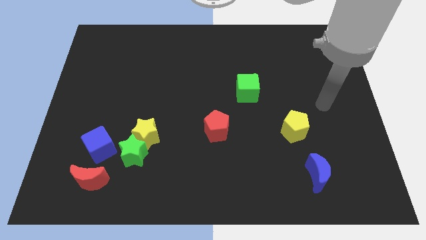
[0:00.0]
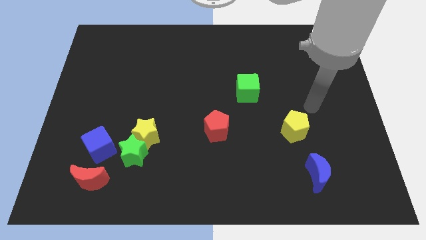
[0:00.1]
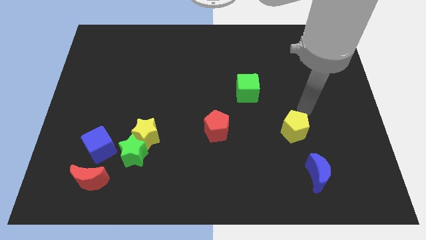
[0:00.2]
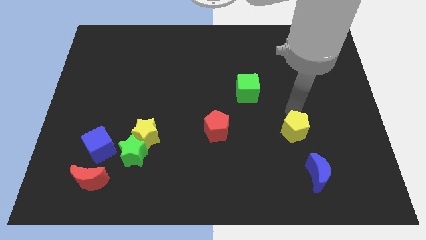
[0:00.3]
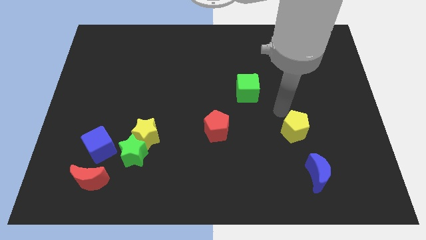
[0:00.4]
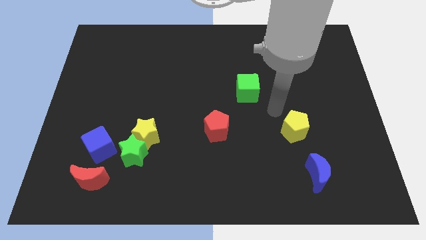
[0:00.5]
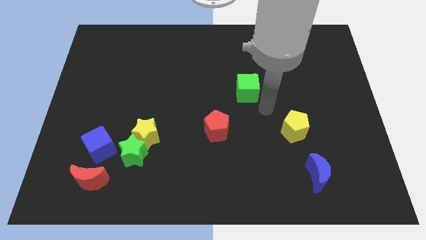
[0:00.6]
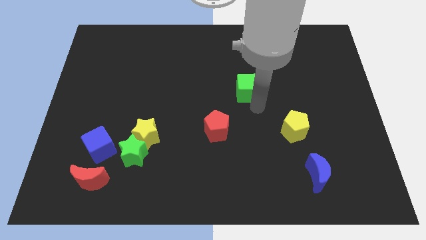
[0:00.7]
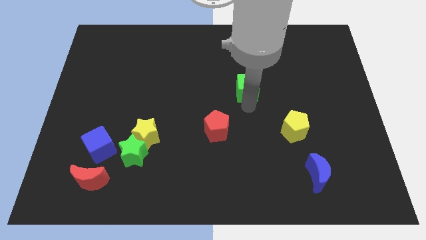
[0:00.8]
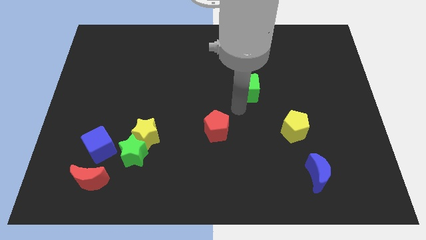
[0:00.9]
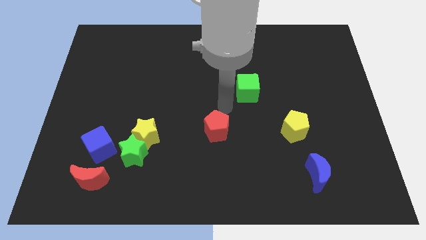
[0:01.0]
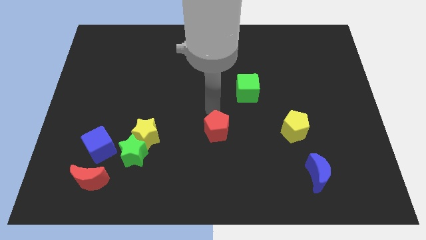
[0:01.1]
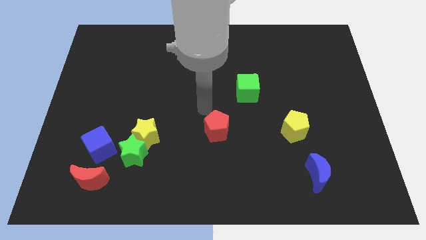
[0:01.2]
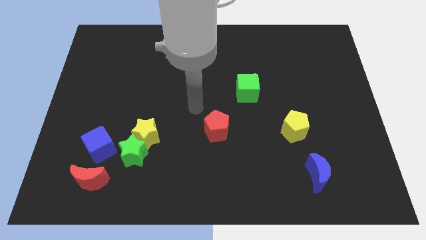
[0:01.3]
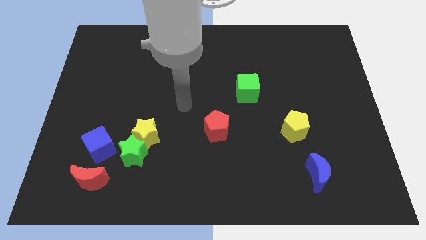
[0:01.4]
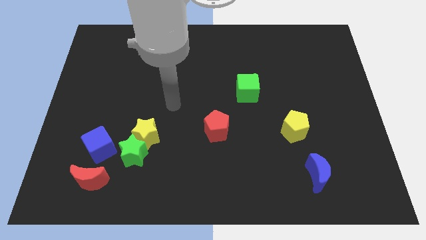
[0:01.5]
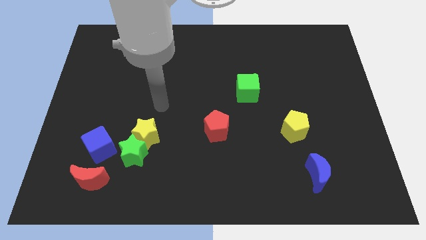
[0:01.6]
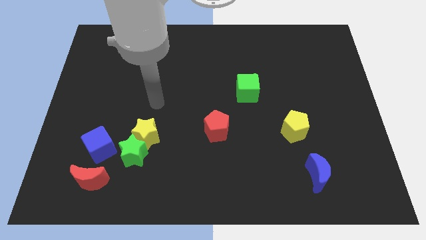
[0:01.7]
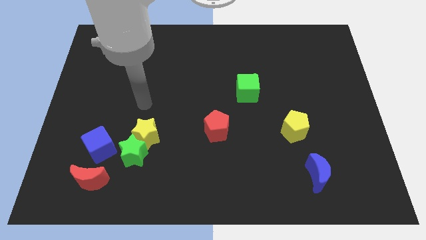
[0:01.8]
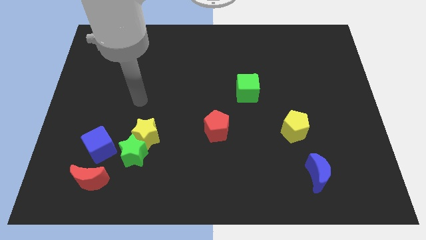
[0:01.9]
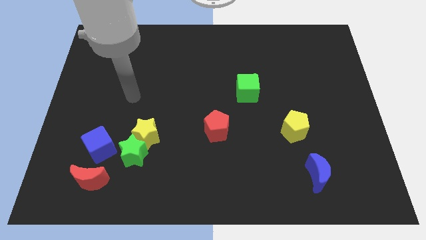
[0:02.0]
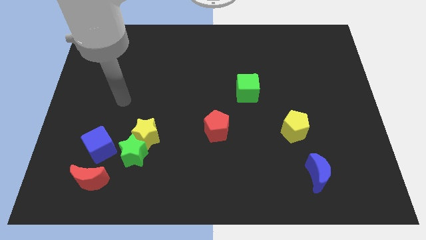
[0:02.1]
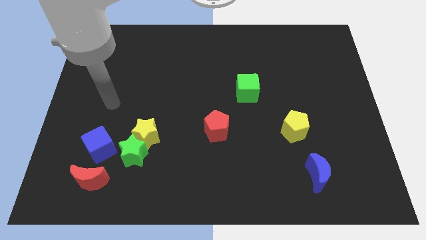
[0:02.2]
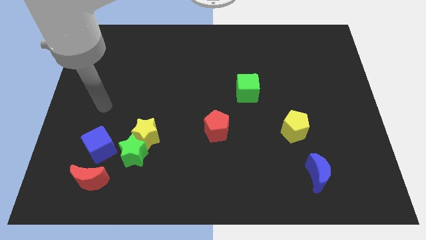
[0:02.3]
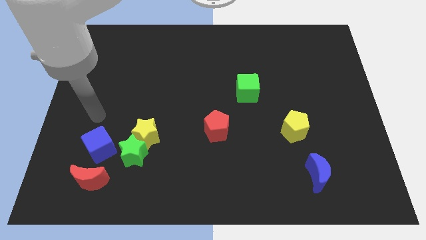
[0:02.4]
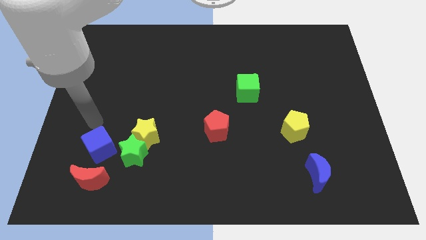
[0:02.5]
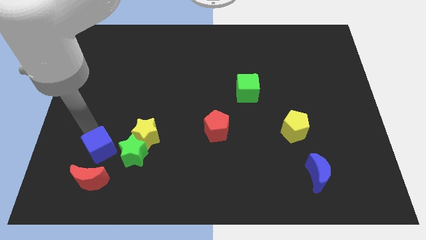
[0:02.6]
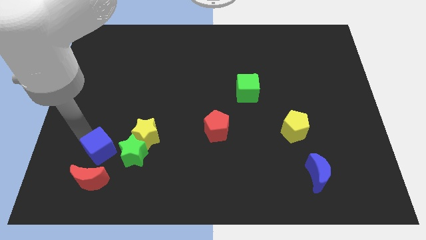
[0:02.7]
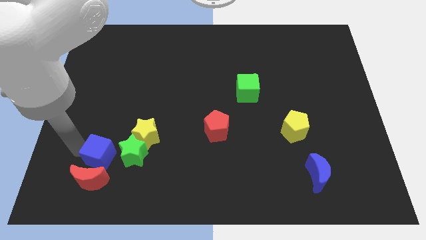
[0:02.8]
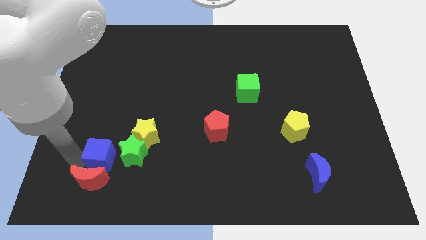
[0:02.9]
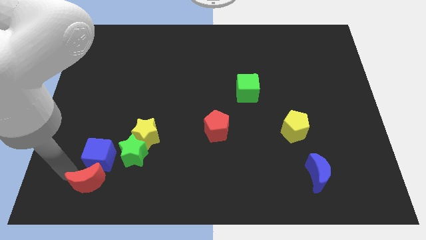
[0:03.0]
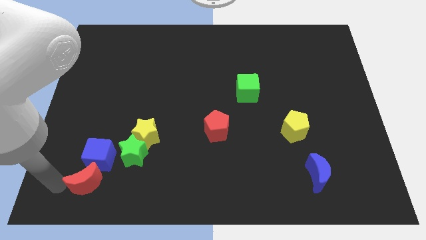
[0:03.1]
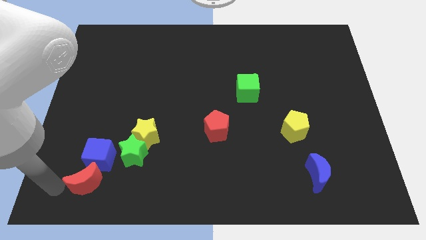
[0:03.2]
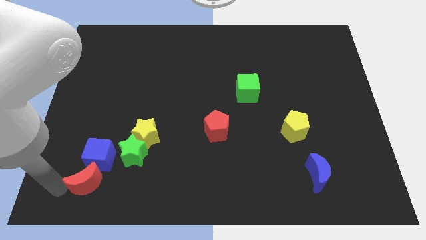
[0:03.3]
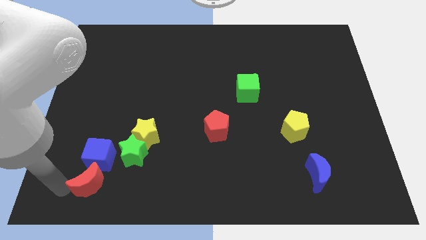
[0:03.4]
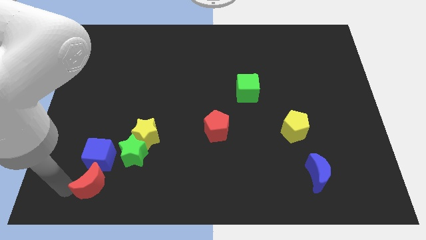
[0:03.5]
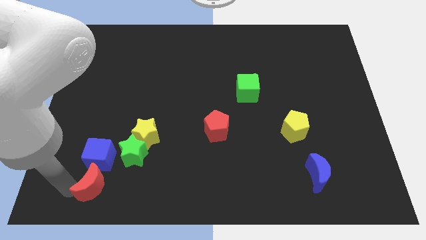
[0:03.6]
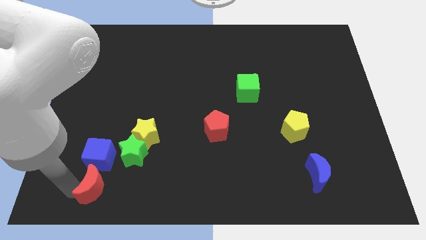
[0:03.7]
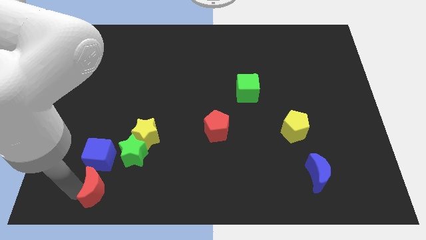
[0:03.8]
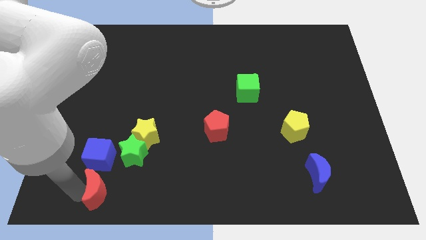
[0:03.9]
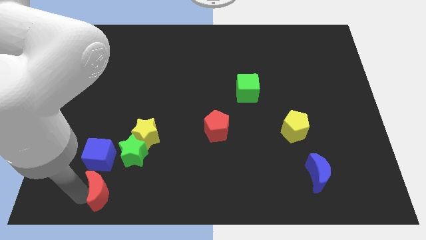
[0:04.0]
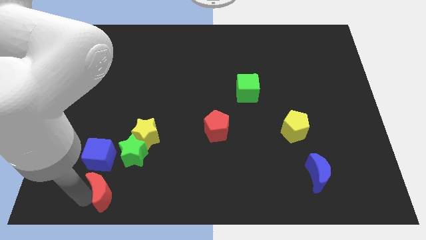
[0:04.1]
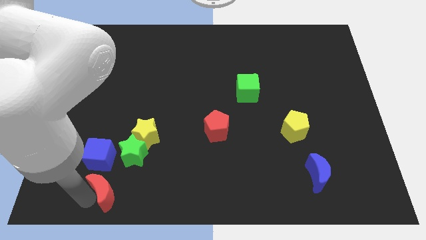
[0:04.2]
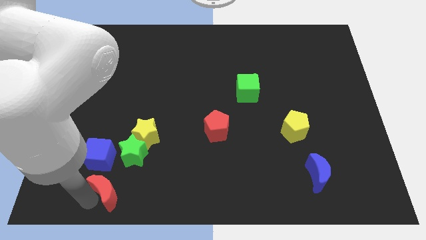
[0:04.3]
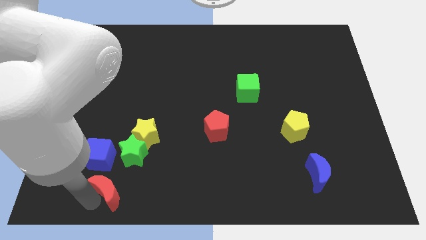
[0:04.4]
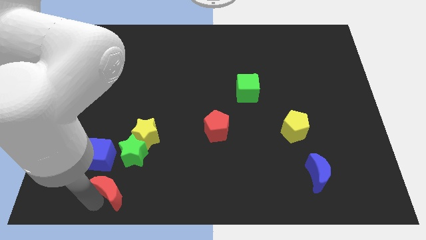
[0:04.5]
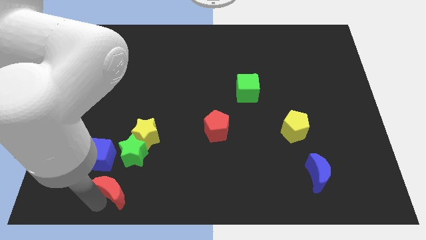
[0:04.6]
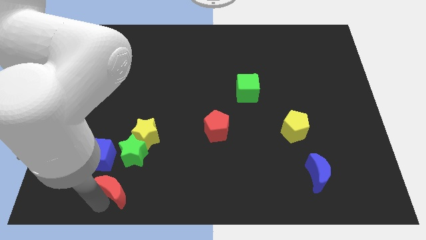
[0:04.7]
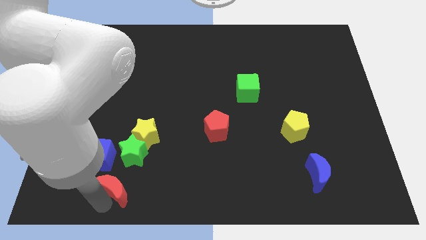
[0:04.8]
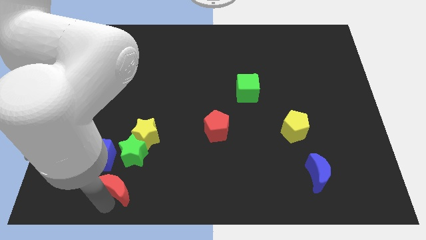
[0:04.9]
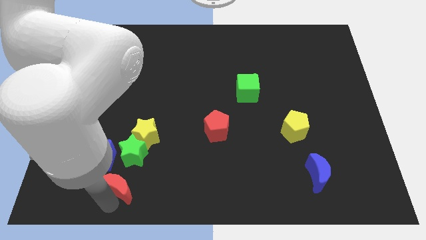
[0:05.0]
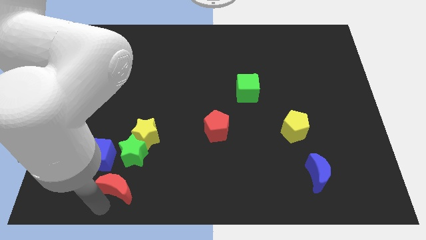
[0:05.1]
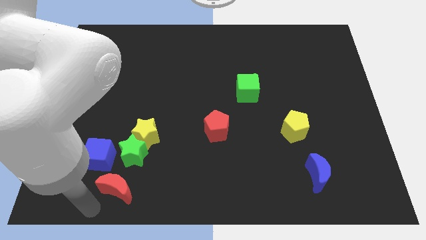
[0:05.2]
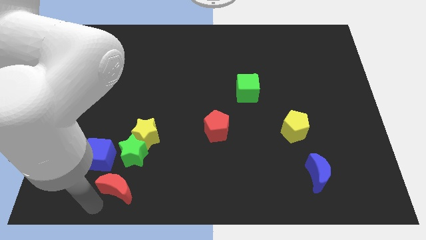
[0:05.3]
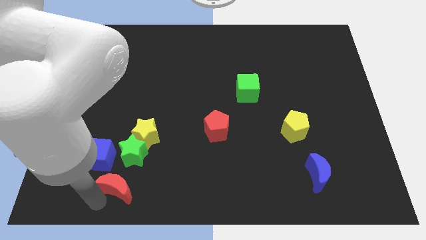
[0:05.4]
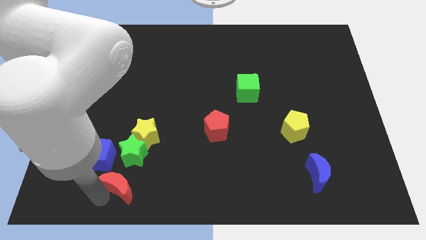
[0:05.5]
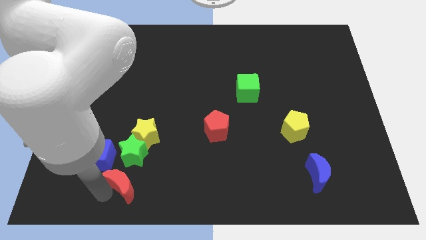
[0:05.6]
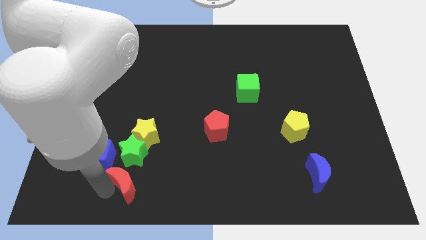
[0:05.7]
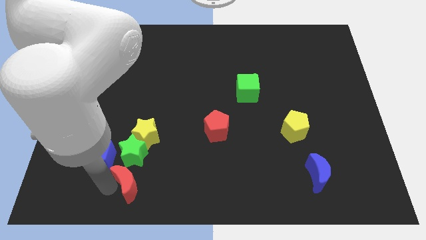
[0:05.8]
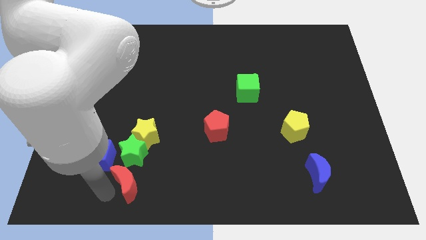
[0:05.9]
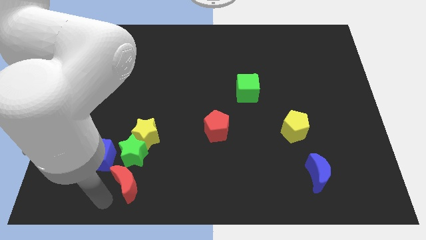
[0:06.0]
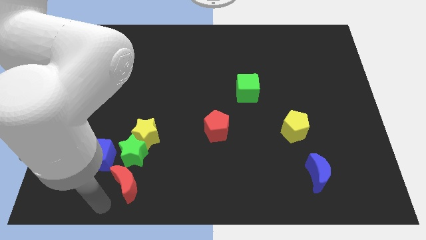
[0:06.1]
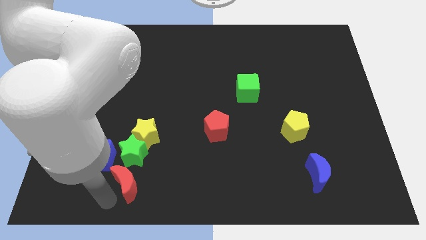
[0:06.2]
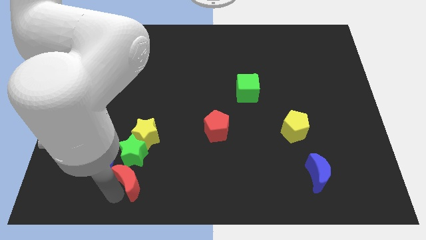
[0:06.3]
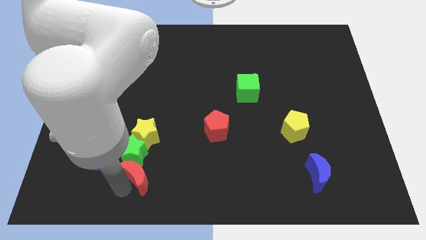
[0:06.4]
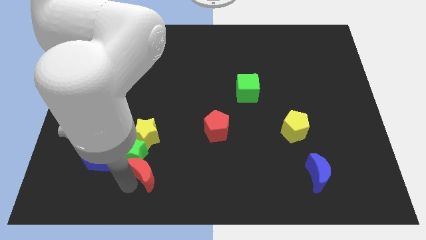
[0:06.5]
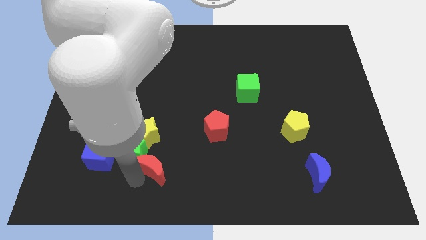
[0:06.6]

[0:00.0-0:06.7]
slide the red moon to the bottom right of the yellow star
